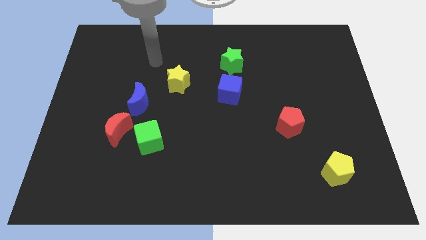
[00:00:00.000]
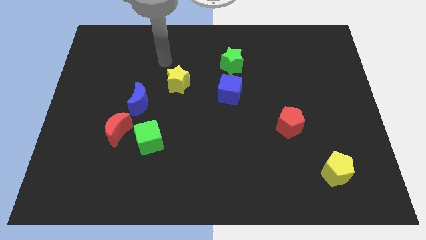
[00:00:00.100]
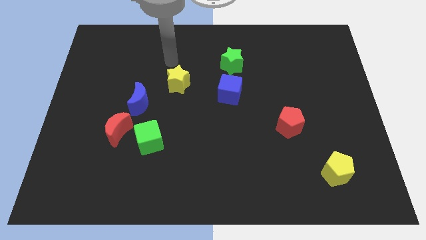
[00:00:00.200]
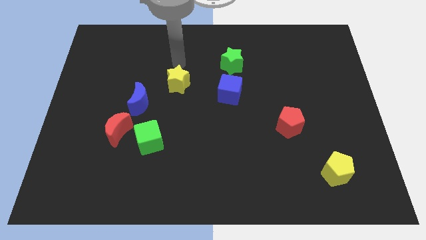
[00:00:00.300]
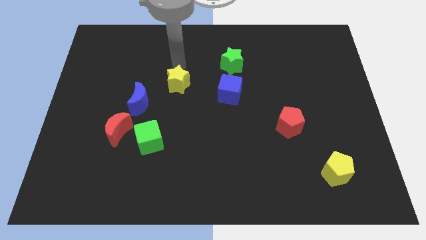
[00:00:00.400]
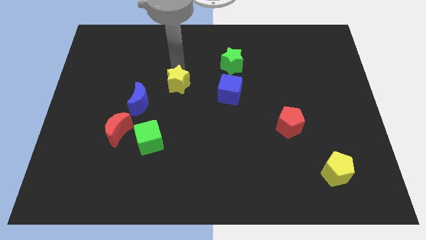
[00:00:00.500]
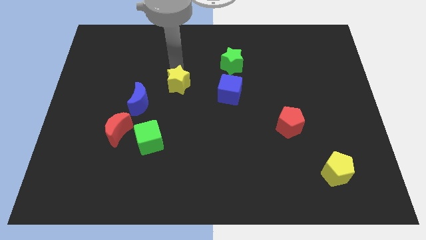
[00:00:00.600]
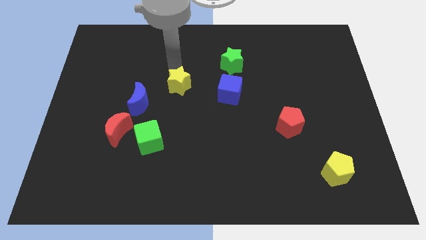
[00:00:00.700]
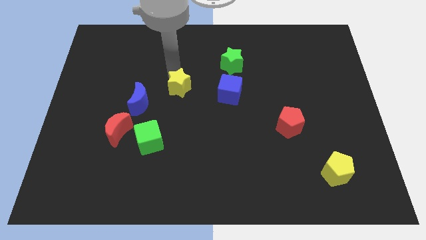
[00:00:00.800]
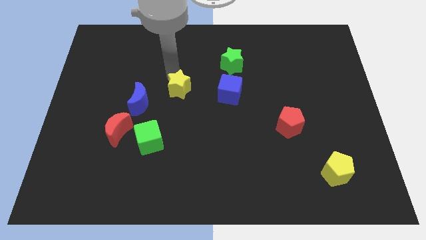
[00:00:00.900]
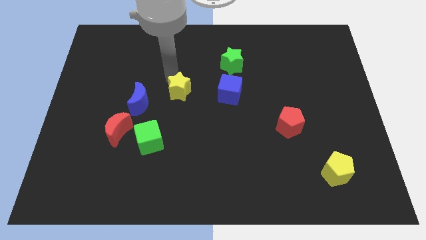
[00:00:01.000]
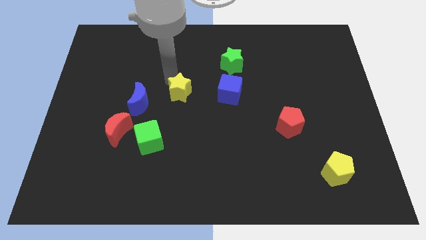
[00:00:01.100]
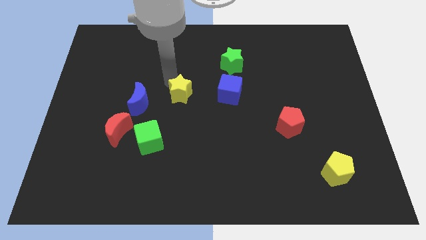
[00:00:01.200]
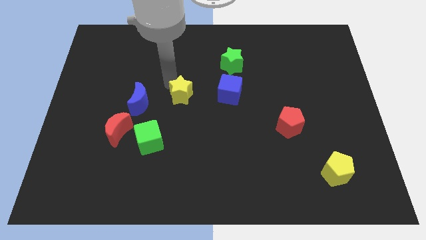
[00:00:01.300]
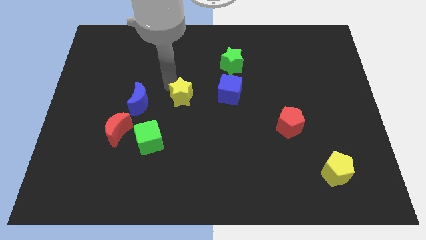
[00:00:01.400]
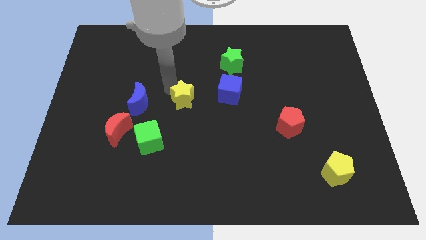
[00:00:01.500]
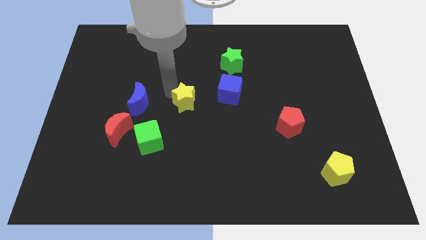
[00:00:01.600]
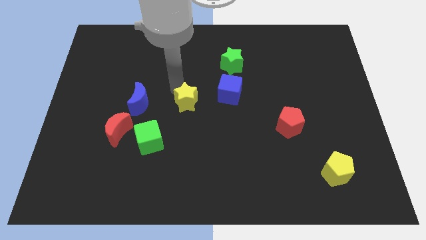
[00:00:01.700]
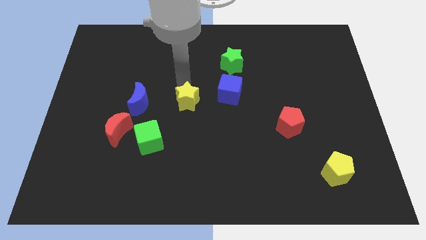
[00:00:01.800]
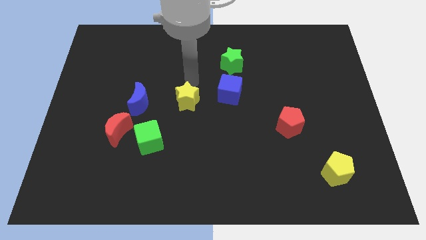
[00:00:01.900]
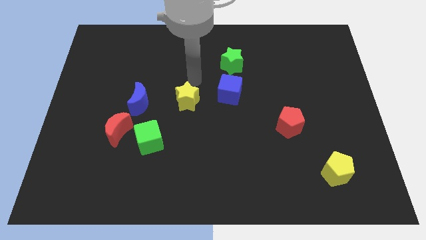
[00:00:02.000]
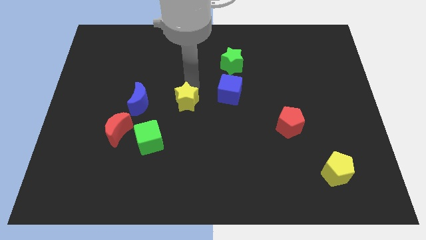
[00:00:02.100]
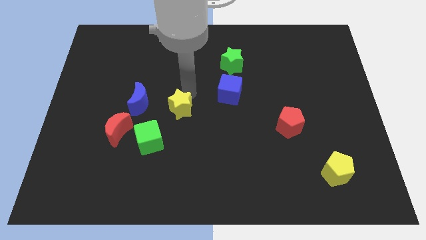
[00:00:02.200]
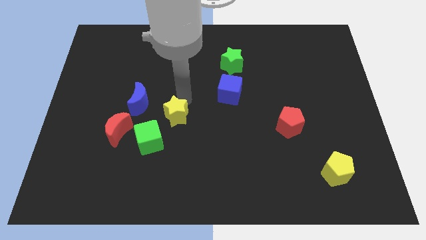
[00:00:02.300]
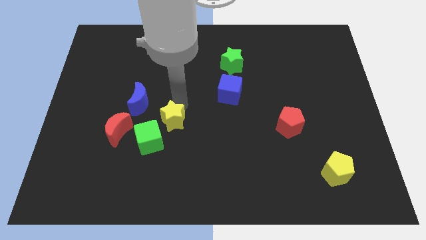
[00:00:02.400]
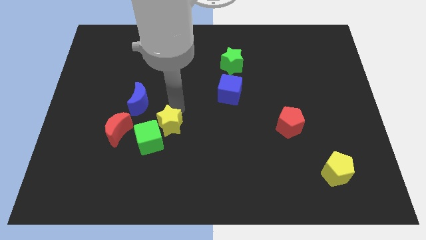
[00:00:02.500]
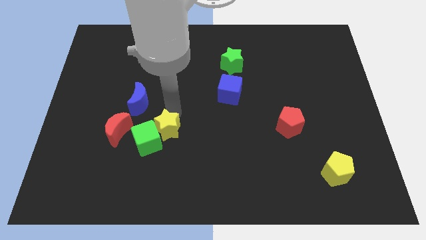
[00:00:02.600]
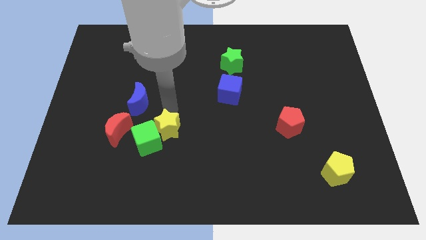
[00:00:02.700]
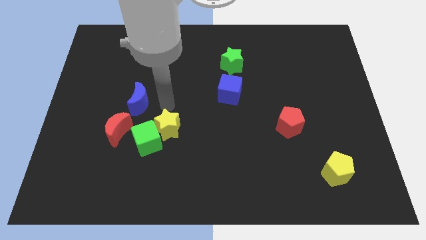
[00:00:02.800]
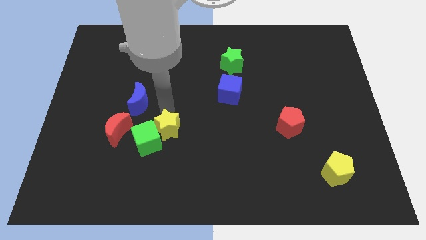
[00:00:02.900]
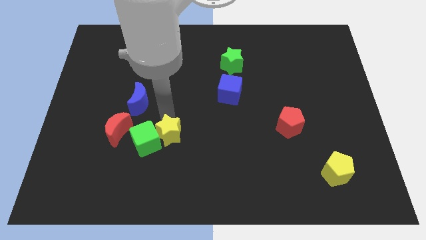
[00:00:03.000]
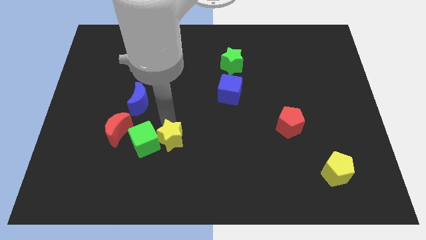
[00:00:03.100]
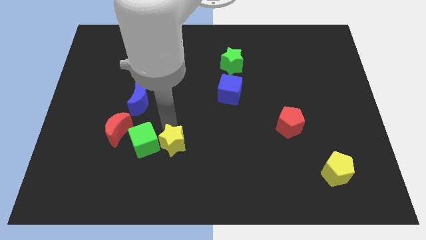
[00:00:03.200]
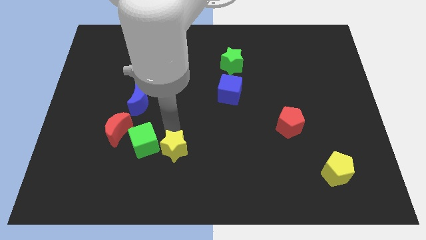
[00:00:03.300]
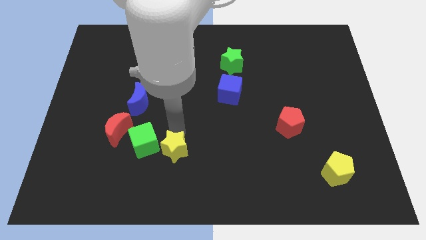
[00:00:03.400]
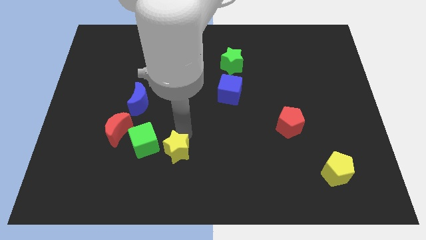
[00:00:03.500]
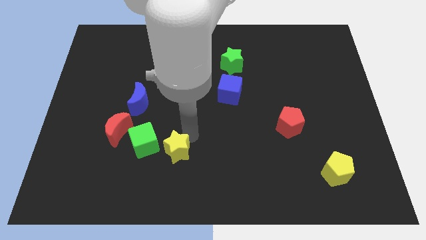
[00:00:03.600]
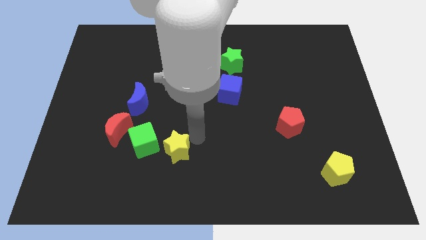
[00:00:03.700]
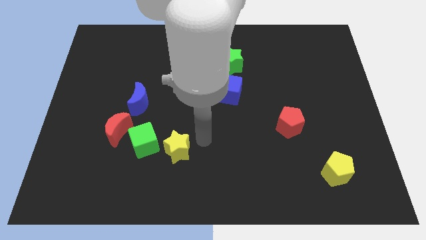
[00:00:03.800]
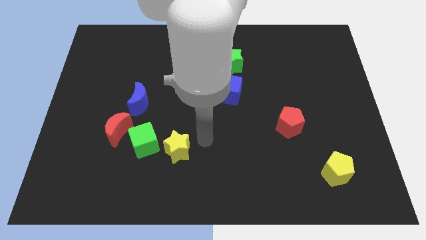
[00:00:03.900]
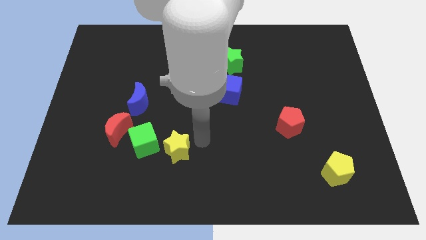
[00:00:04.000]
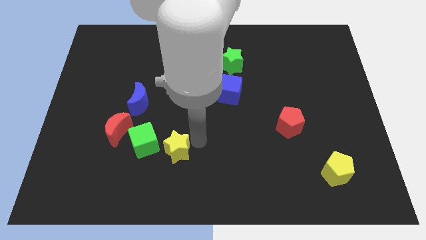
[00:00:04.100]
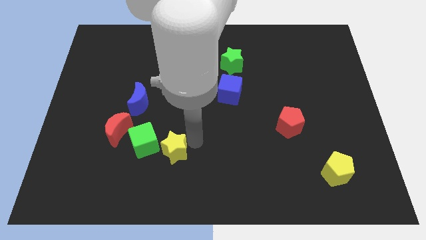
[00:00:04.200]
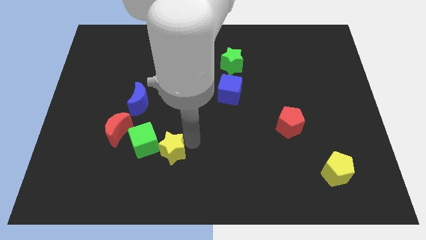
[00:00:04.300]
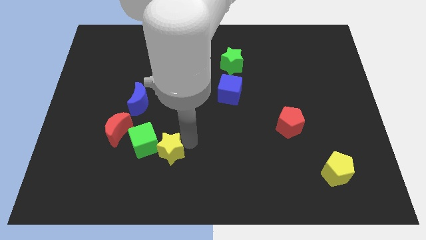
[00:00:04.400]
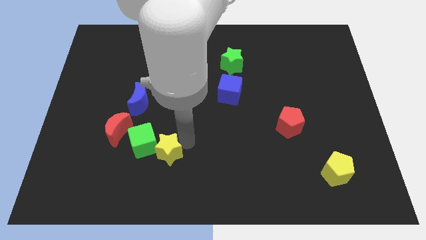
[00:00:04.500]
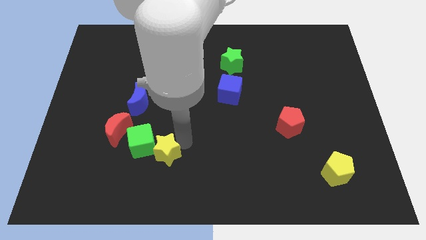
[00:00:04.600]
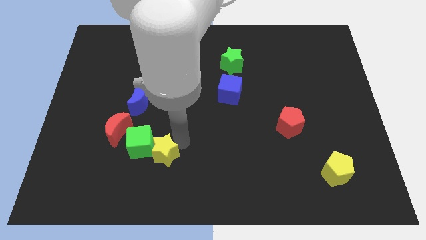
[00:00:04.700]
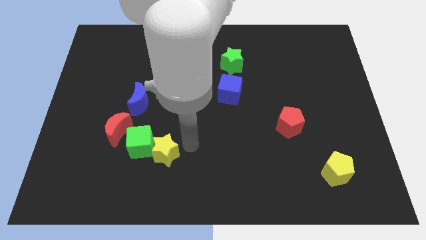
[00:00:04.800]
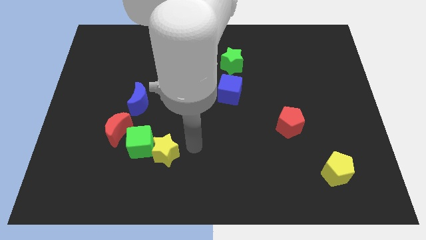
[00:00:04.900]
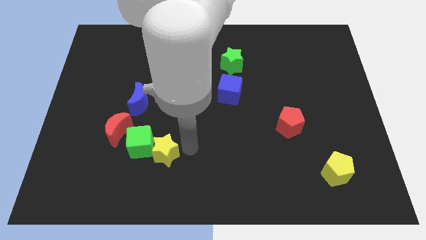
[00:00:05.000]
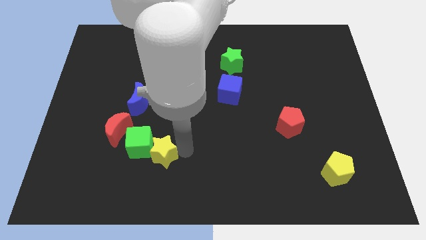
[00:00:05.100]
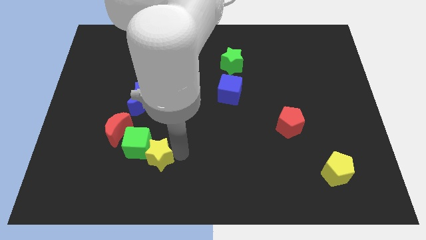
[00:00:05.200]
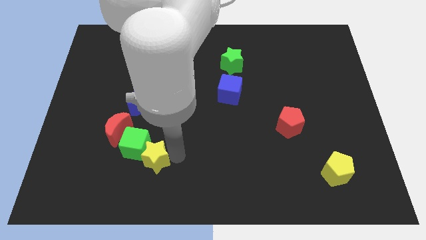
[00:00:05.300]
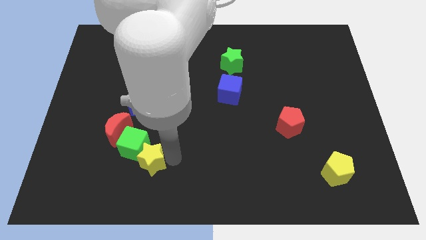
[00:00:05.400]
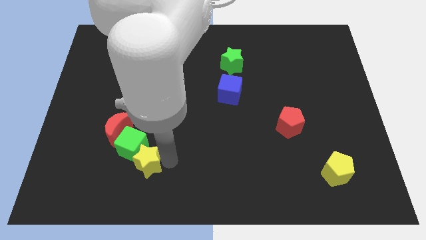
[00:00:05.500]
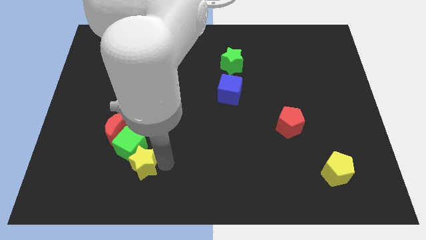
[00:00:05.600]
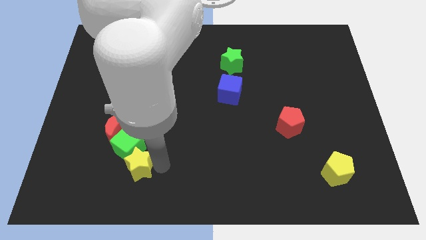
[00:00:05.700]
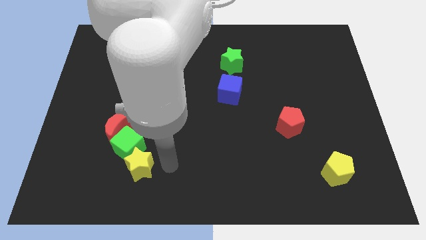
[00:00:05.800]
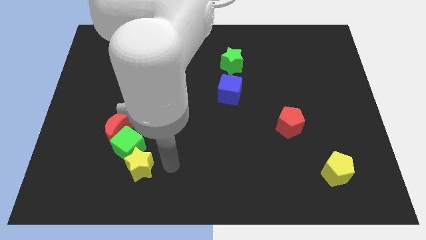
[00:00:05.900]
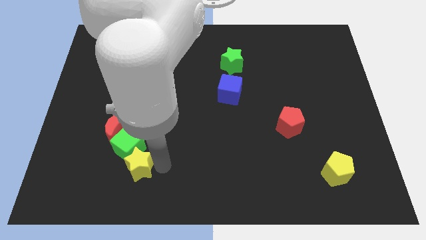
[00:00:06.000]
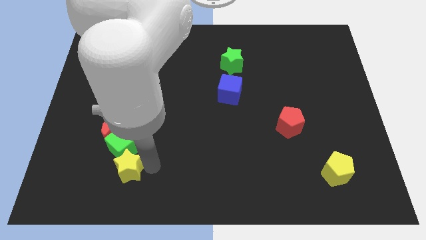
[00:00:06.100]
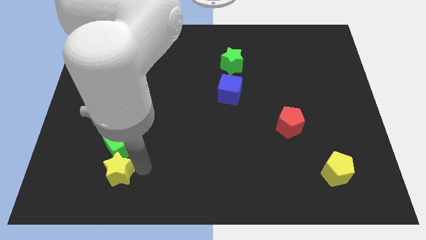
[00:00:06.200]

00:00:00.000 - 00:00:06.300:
push the yellow star to the bottom left of the green cube
